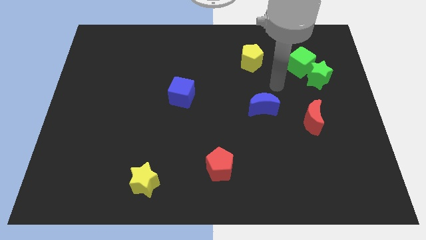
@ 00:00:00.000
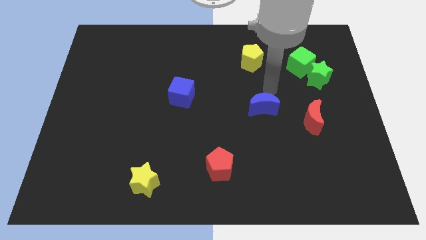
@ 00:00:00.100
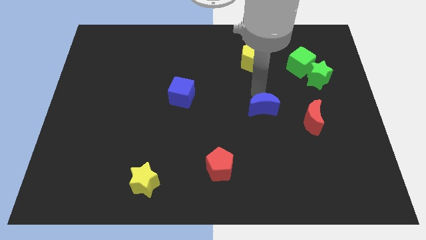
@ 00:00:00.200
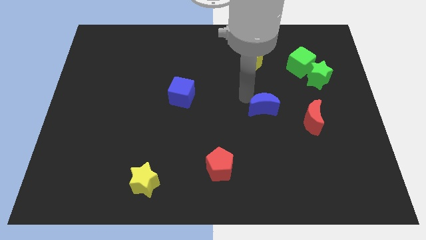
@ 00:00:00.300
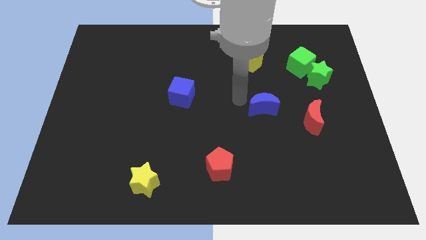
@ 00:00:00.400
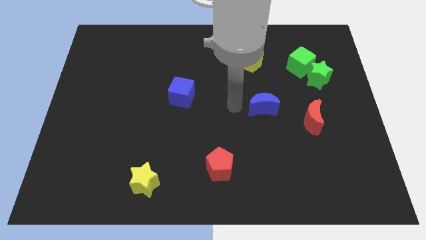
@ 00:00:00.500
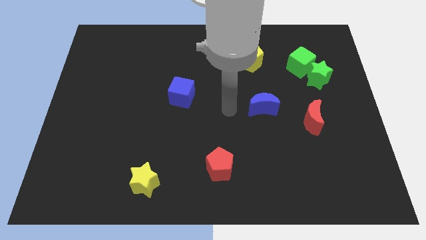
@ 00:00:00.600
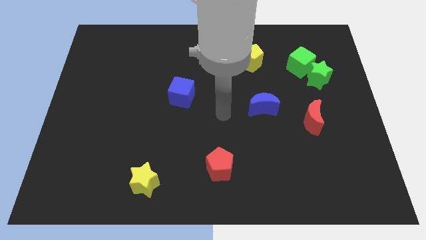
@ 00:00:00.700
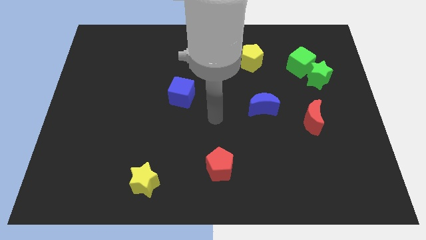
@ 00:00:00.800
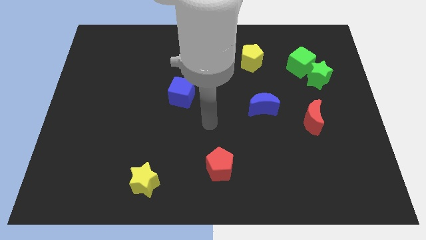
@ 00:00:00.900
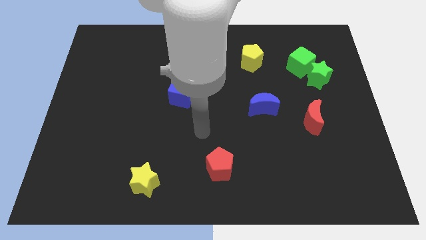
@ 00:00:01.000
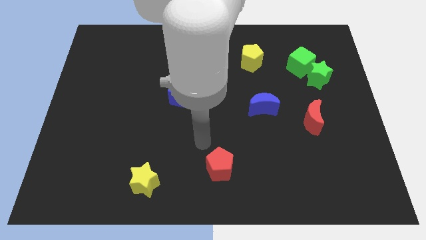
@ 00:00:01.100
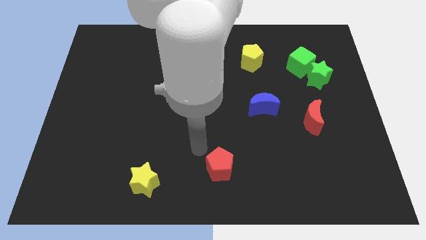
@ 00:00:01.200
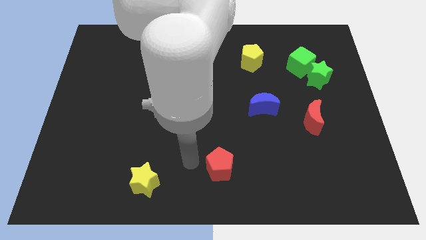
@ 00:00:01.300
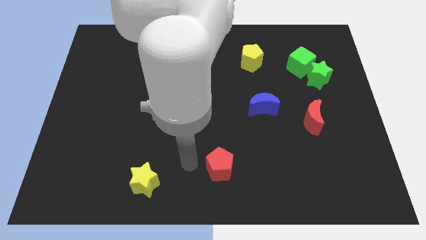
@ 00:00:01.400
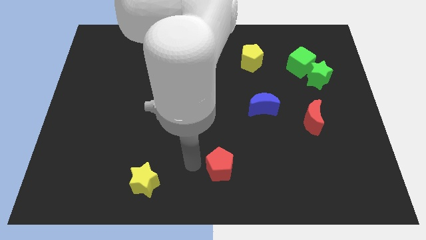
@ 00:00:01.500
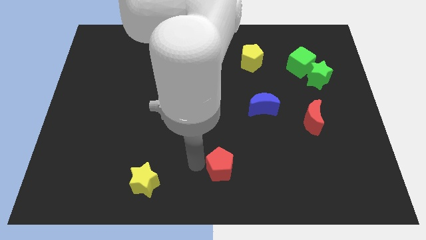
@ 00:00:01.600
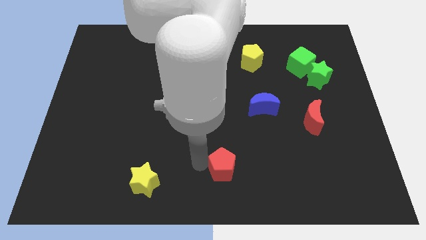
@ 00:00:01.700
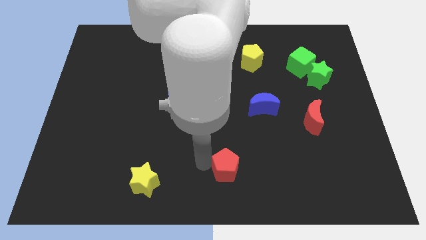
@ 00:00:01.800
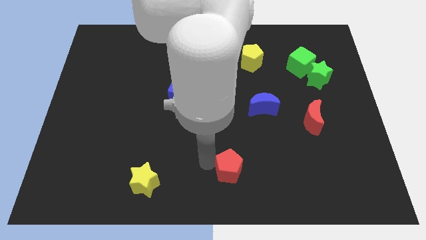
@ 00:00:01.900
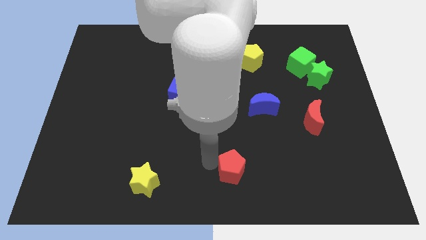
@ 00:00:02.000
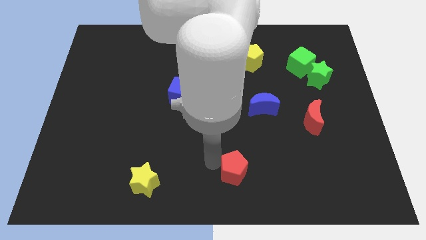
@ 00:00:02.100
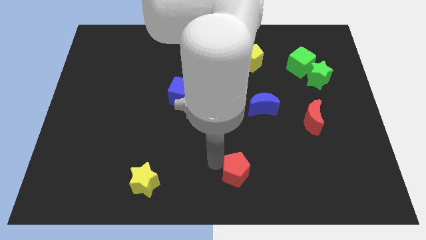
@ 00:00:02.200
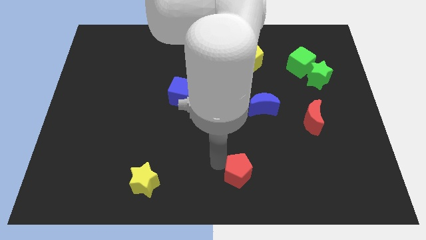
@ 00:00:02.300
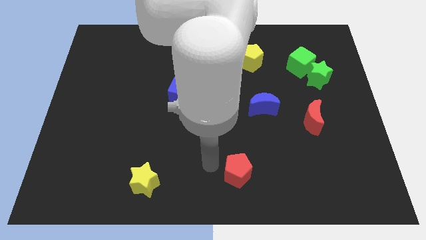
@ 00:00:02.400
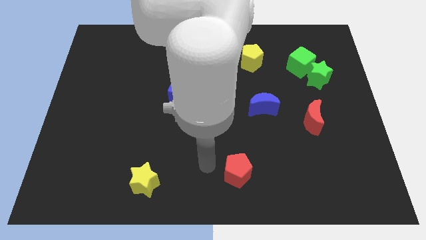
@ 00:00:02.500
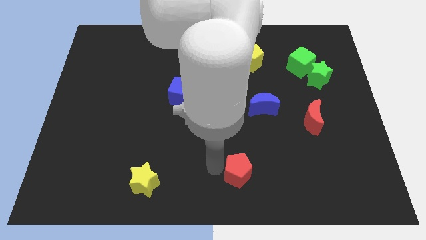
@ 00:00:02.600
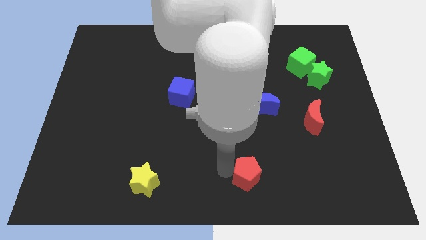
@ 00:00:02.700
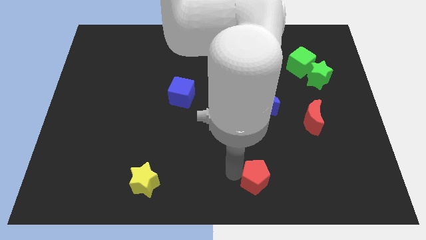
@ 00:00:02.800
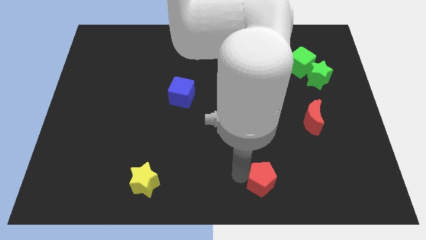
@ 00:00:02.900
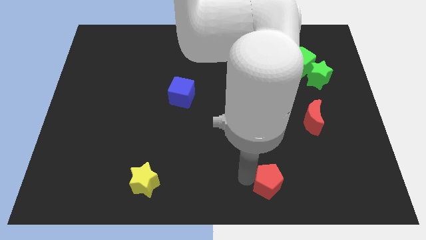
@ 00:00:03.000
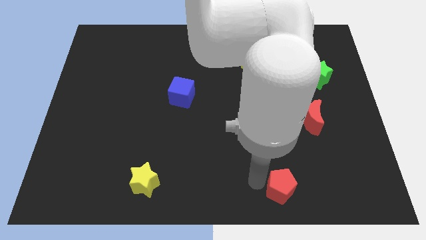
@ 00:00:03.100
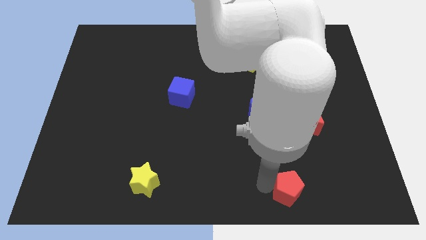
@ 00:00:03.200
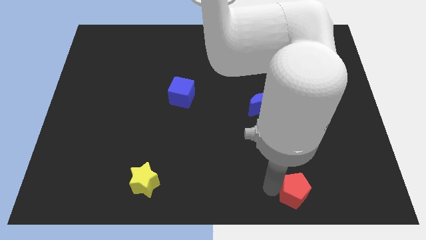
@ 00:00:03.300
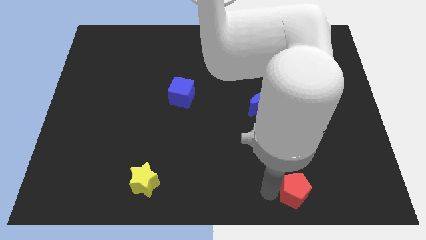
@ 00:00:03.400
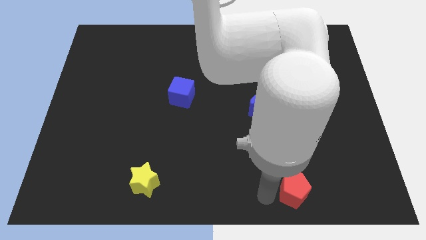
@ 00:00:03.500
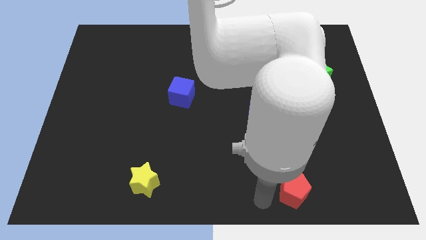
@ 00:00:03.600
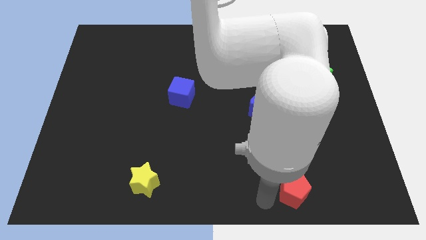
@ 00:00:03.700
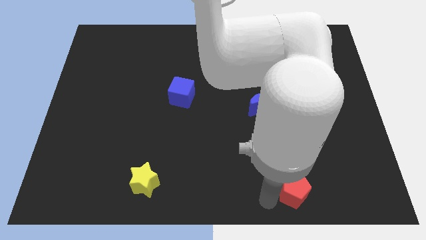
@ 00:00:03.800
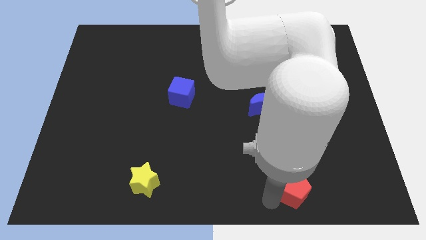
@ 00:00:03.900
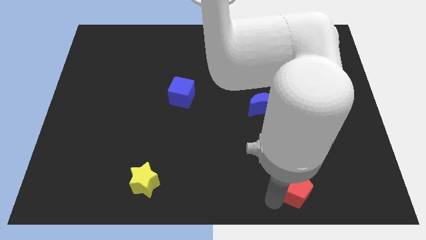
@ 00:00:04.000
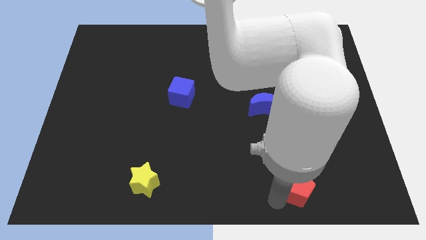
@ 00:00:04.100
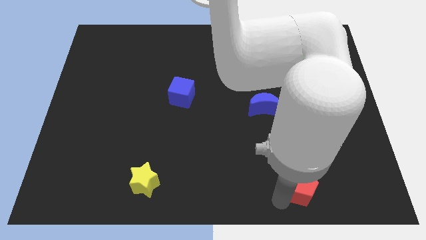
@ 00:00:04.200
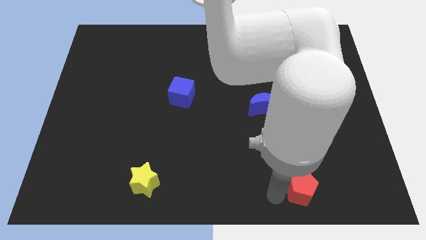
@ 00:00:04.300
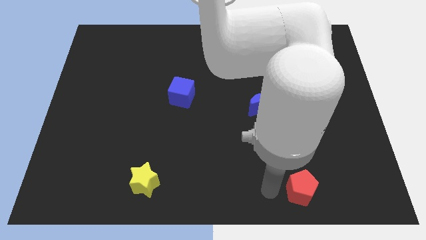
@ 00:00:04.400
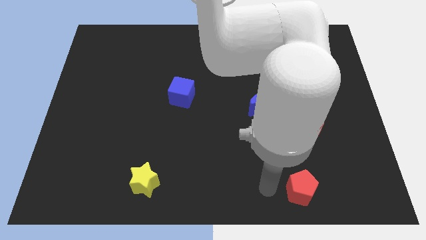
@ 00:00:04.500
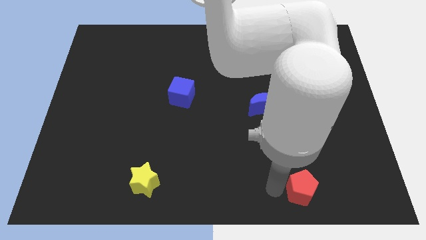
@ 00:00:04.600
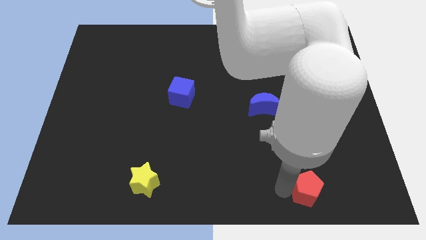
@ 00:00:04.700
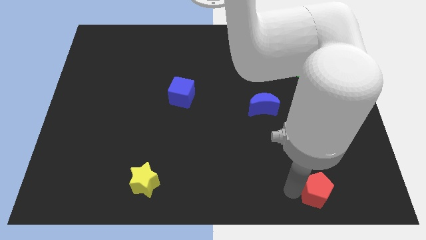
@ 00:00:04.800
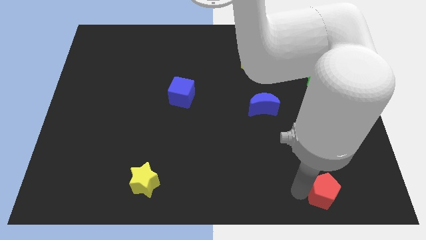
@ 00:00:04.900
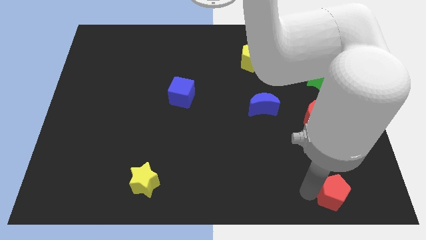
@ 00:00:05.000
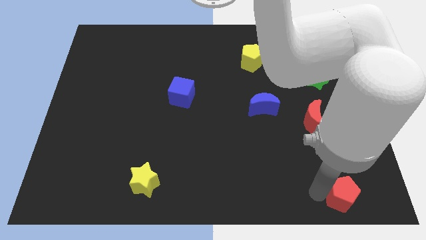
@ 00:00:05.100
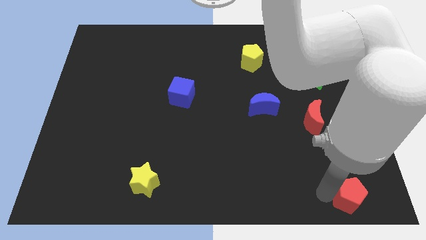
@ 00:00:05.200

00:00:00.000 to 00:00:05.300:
slide the red pentagon to the bottom right of the board
